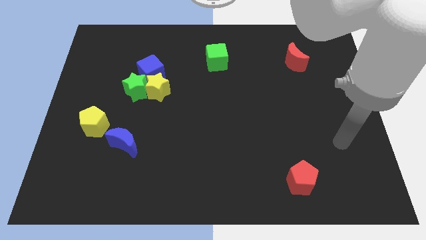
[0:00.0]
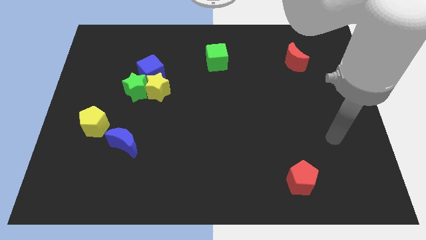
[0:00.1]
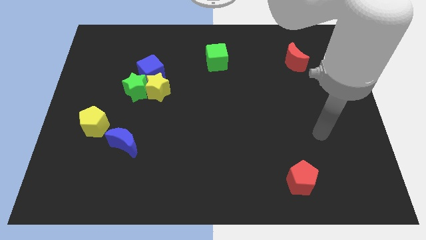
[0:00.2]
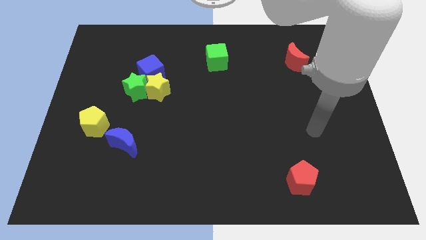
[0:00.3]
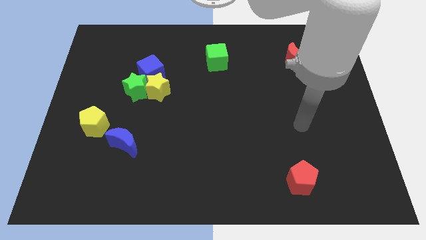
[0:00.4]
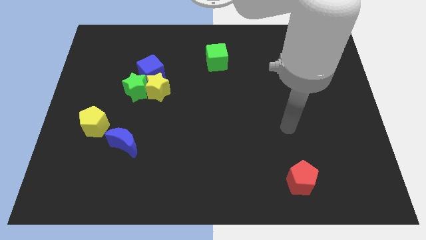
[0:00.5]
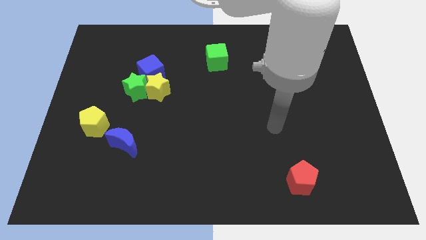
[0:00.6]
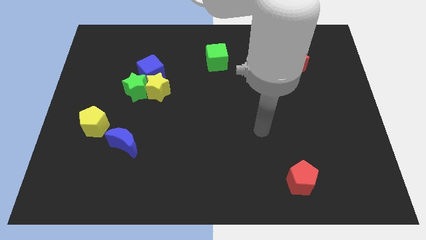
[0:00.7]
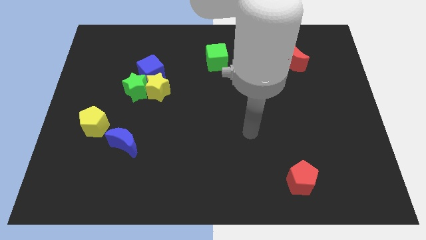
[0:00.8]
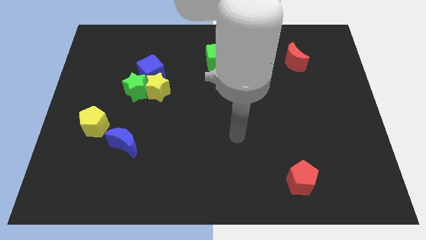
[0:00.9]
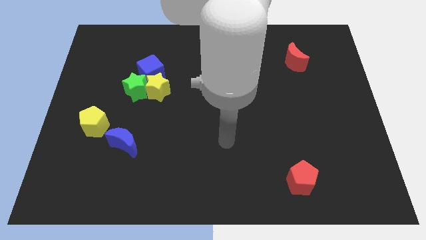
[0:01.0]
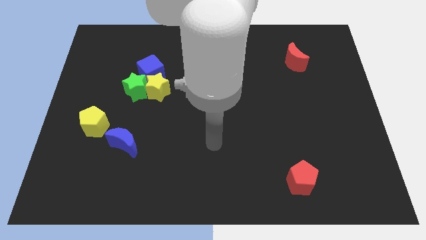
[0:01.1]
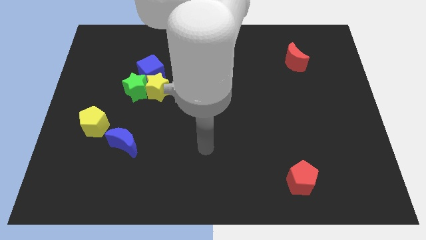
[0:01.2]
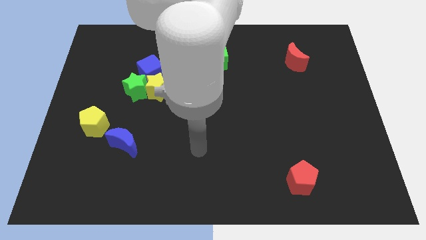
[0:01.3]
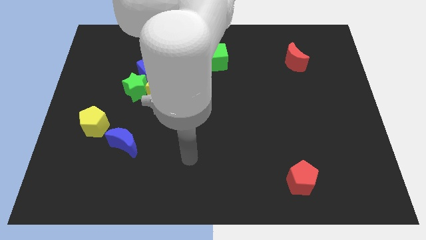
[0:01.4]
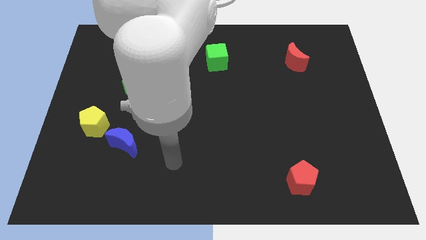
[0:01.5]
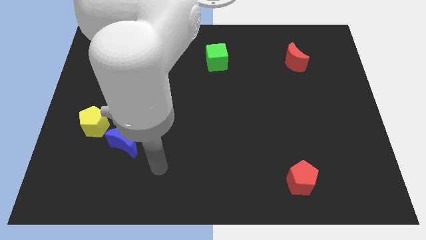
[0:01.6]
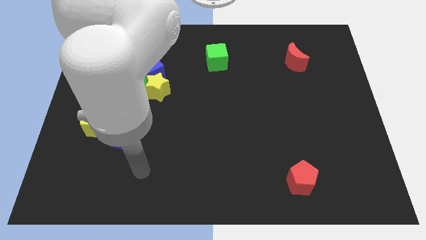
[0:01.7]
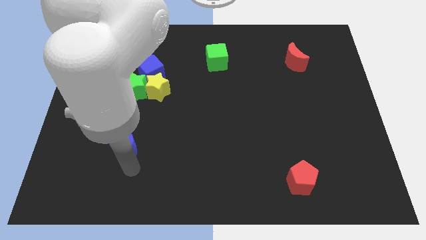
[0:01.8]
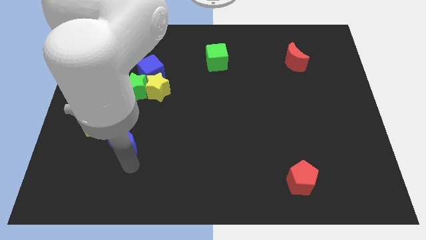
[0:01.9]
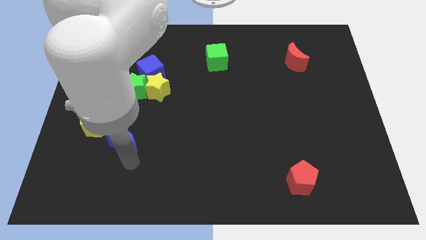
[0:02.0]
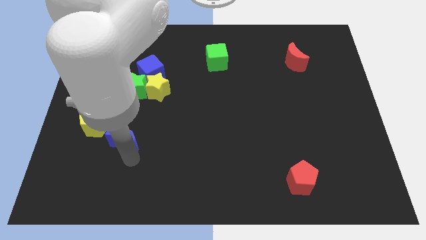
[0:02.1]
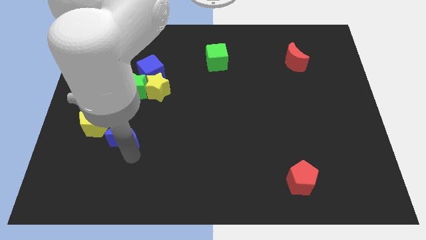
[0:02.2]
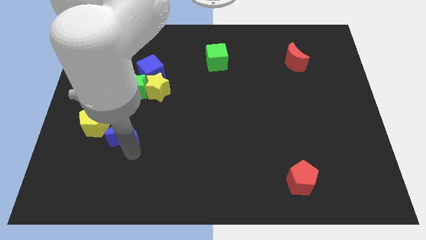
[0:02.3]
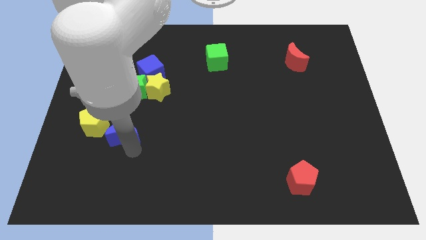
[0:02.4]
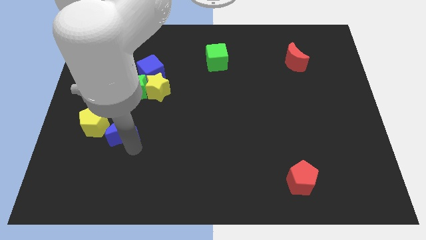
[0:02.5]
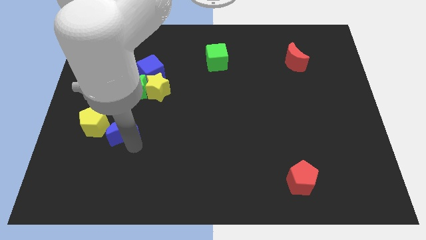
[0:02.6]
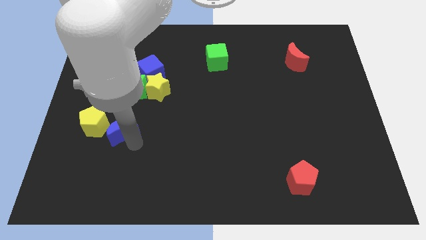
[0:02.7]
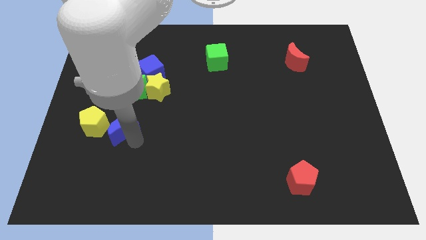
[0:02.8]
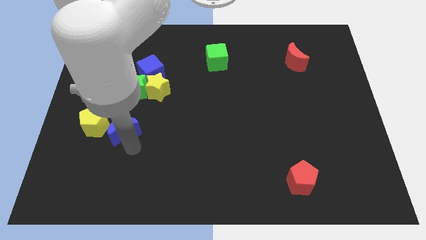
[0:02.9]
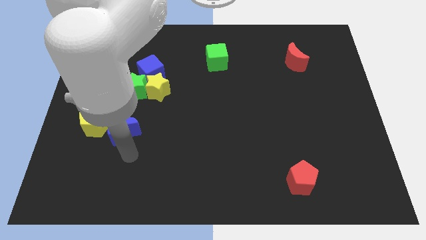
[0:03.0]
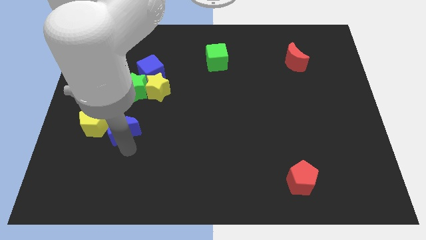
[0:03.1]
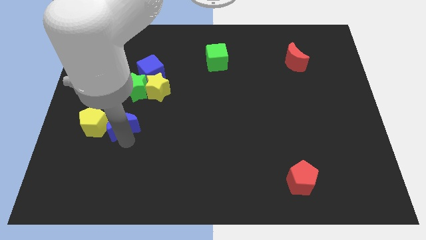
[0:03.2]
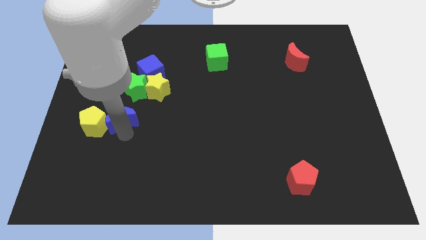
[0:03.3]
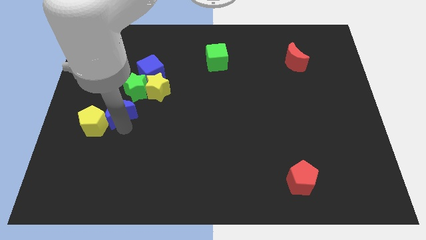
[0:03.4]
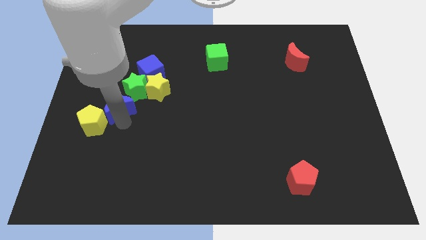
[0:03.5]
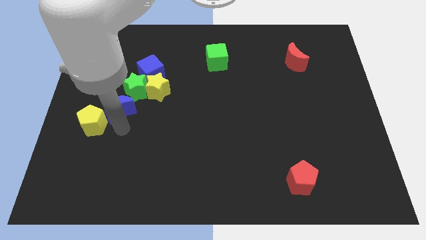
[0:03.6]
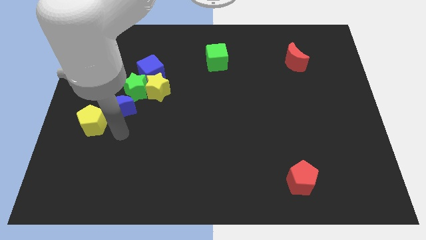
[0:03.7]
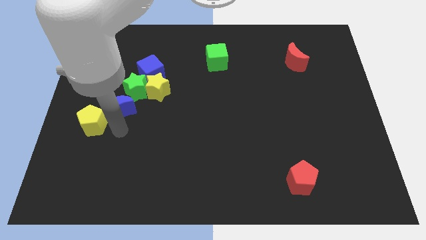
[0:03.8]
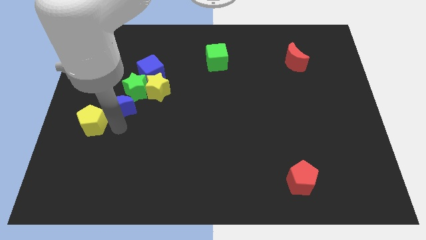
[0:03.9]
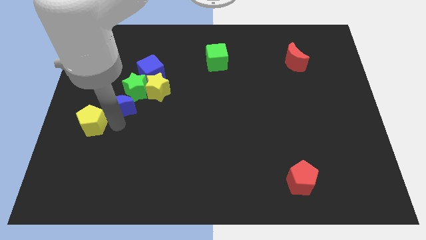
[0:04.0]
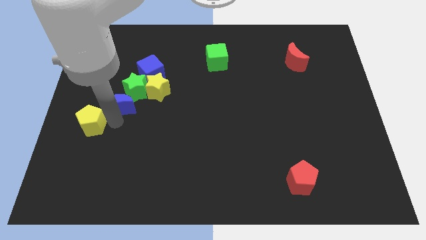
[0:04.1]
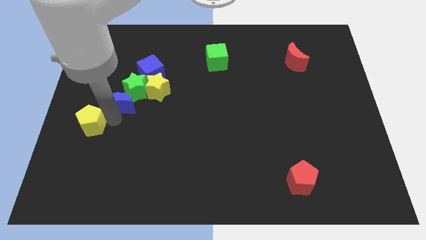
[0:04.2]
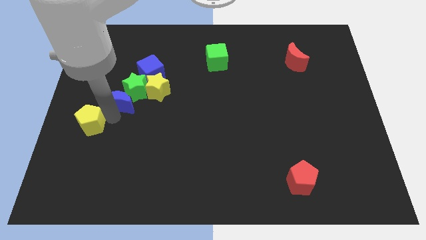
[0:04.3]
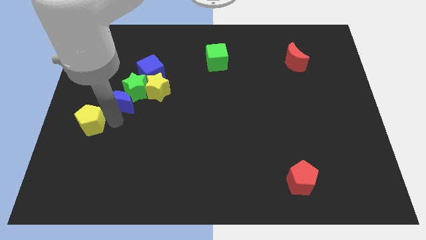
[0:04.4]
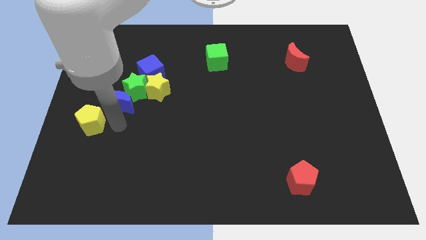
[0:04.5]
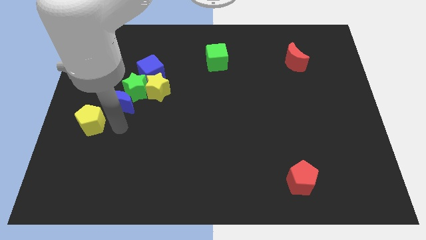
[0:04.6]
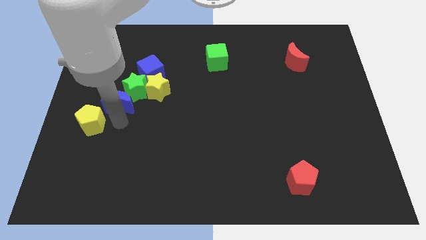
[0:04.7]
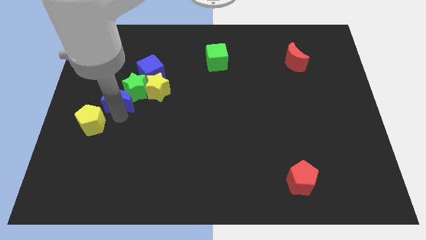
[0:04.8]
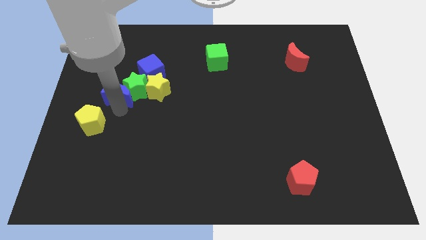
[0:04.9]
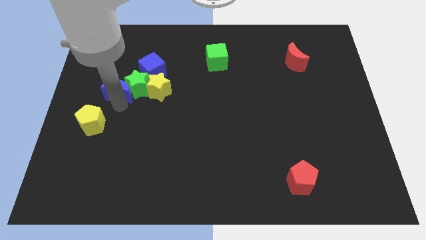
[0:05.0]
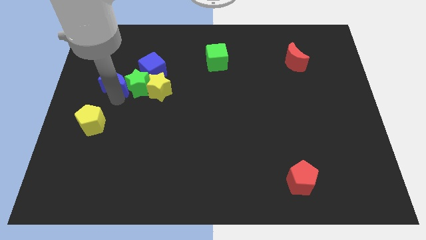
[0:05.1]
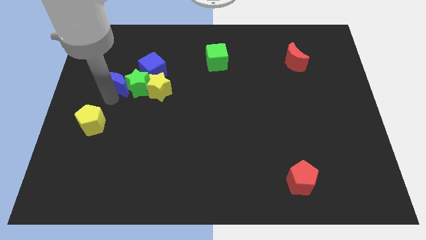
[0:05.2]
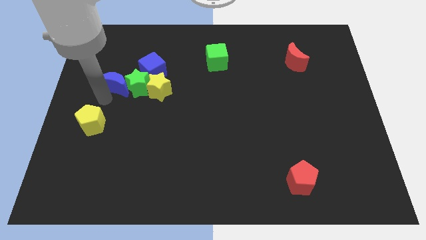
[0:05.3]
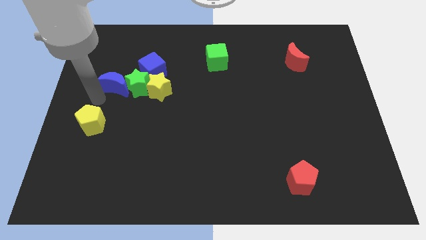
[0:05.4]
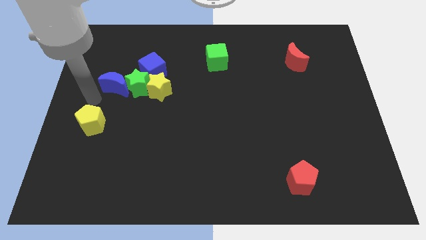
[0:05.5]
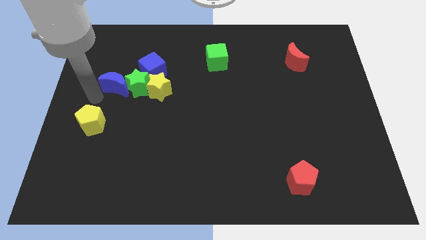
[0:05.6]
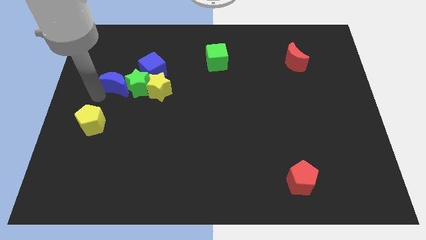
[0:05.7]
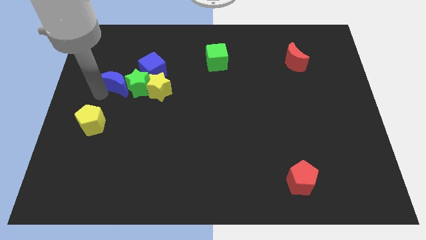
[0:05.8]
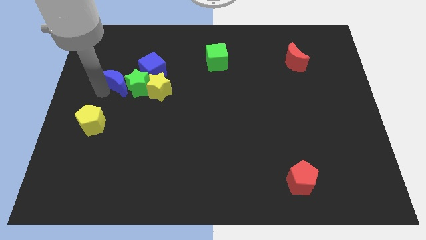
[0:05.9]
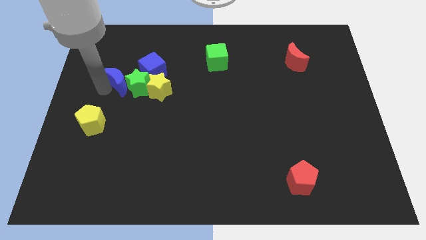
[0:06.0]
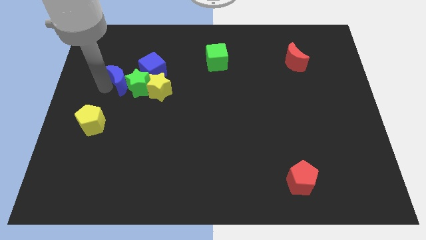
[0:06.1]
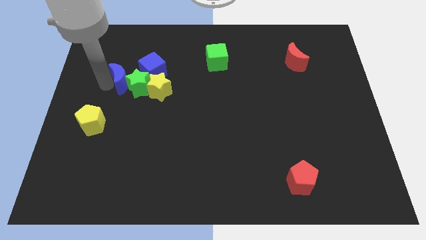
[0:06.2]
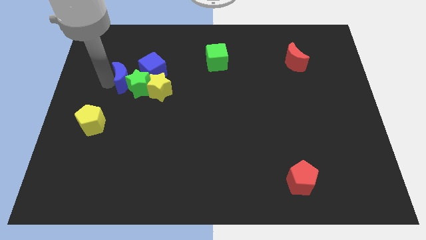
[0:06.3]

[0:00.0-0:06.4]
push the blue moon diagonally up and to the left of the yellow star
